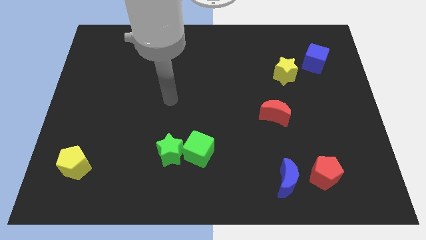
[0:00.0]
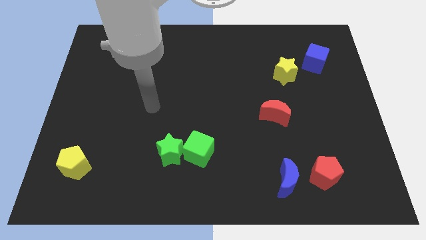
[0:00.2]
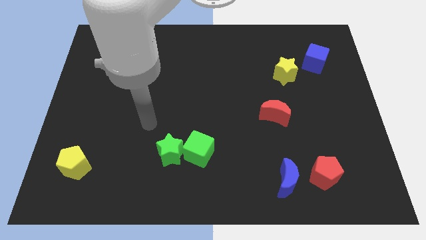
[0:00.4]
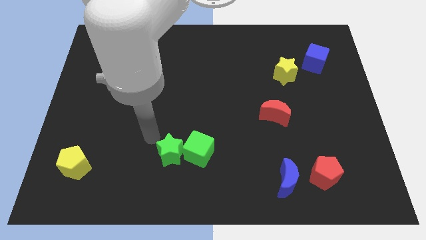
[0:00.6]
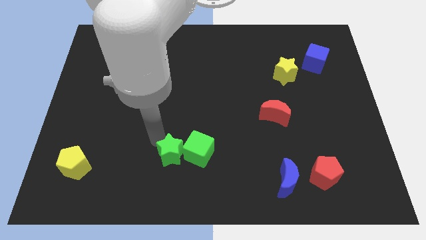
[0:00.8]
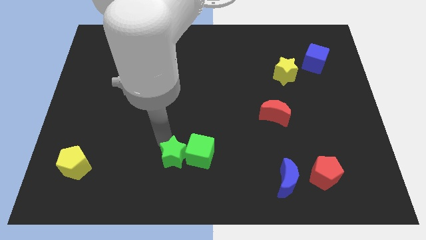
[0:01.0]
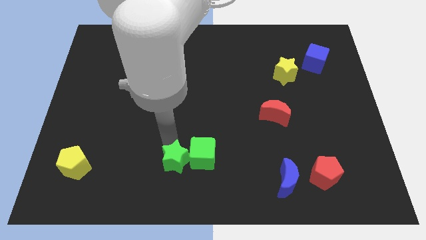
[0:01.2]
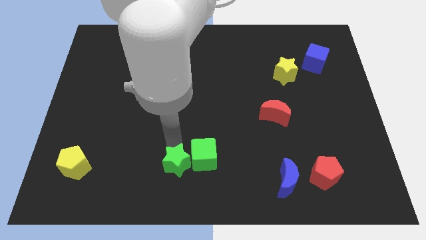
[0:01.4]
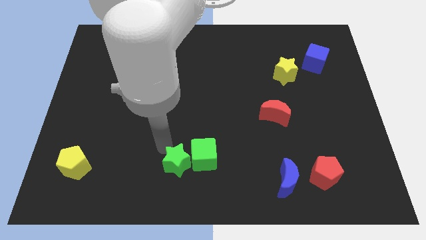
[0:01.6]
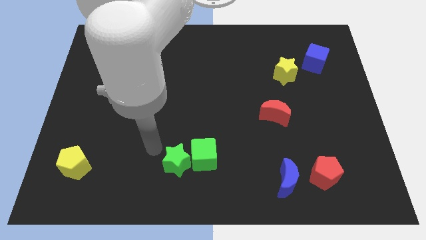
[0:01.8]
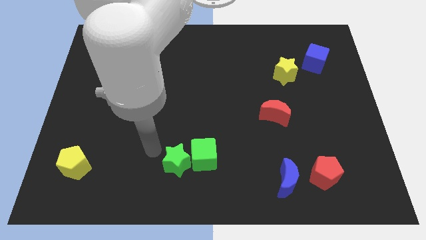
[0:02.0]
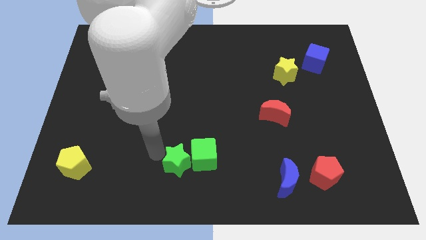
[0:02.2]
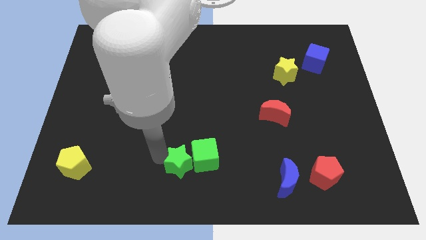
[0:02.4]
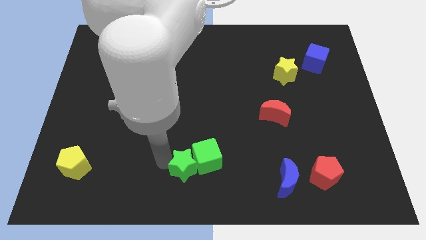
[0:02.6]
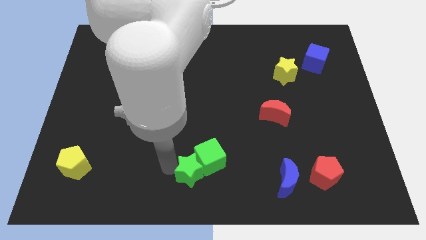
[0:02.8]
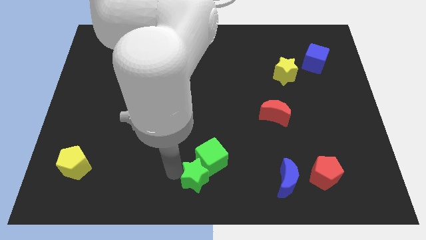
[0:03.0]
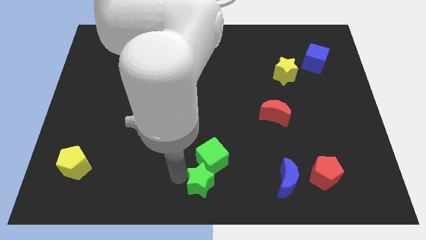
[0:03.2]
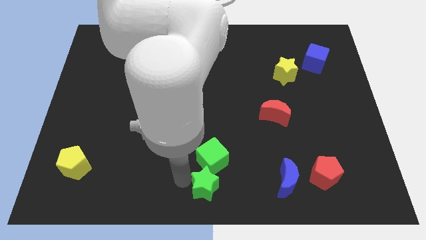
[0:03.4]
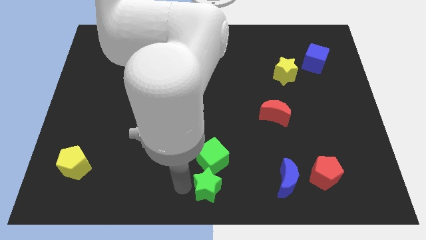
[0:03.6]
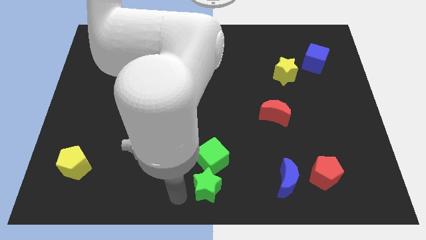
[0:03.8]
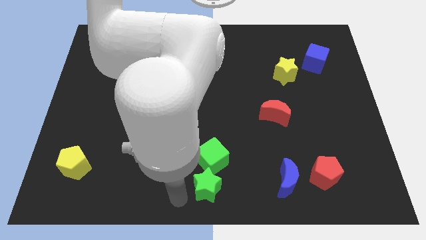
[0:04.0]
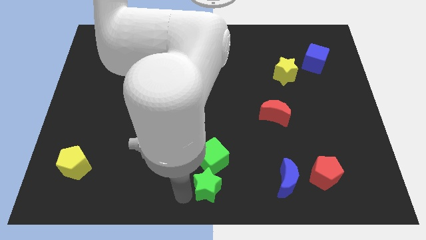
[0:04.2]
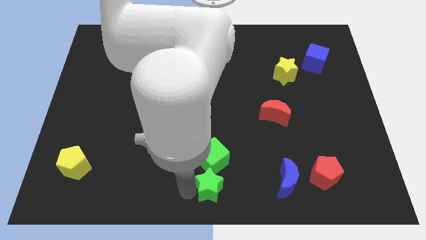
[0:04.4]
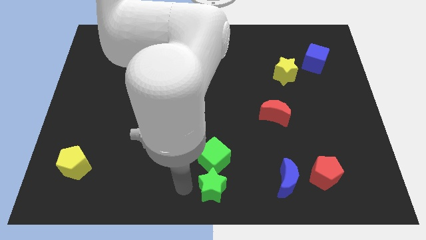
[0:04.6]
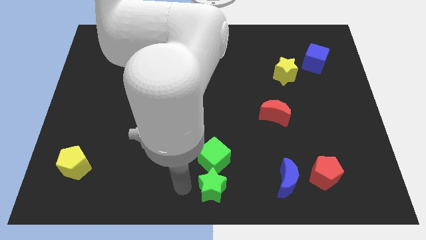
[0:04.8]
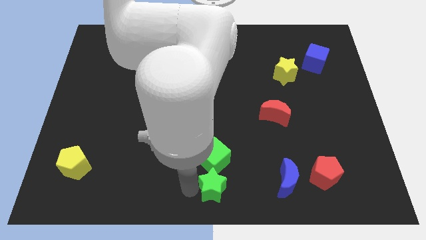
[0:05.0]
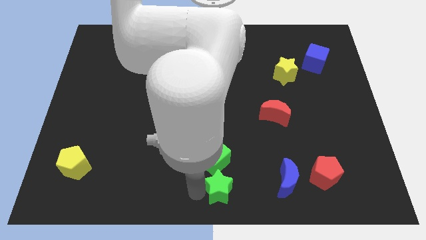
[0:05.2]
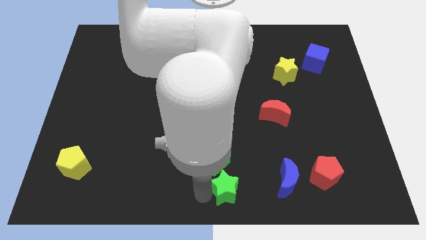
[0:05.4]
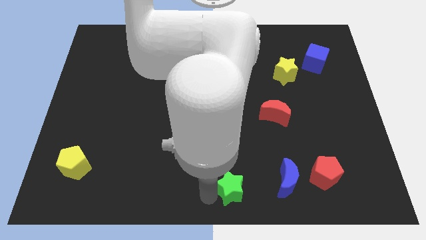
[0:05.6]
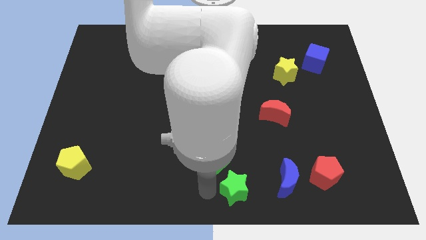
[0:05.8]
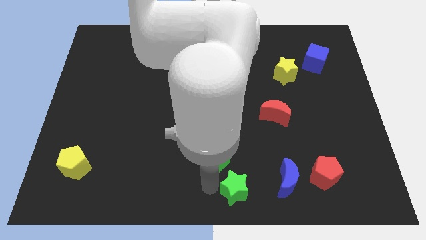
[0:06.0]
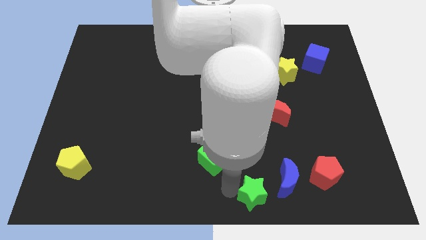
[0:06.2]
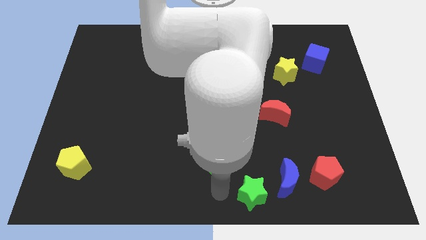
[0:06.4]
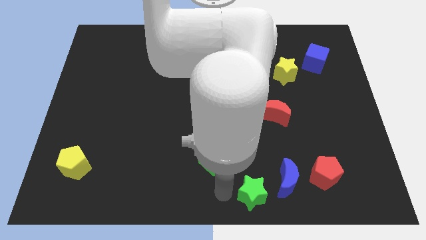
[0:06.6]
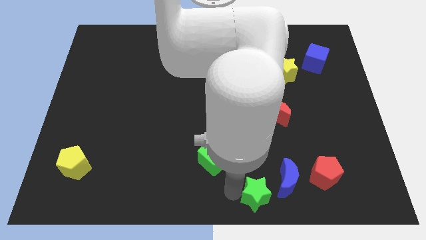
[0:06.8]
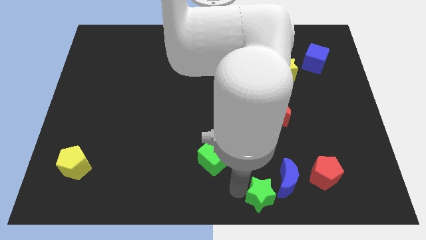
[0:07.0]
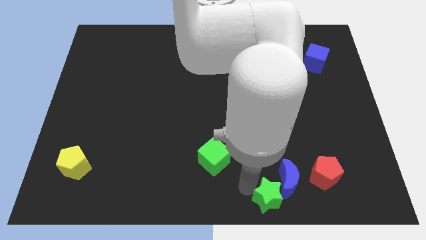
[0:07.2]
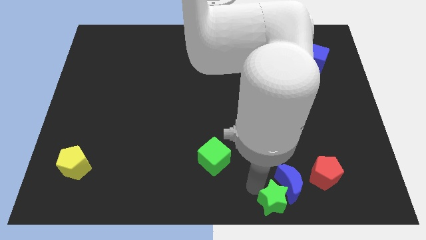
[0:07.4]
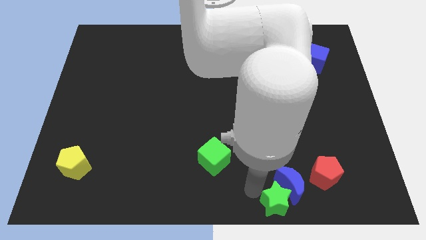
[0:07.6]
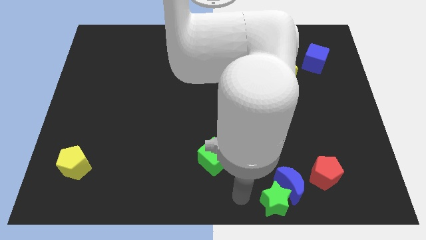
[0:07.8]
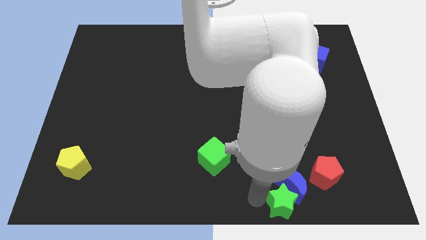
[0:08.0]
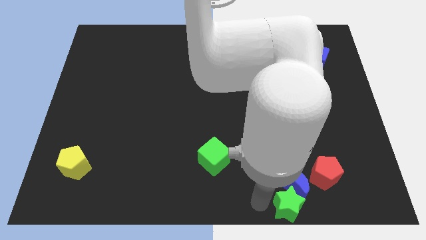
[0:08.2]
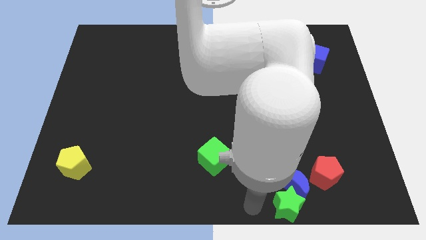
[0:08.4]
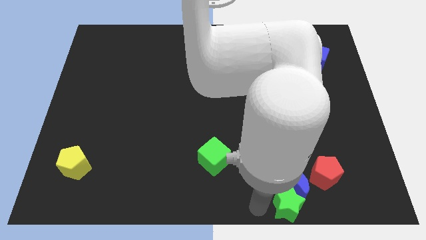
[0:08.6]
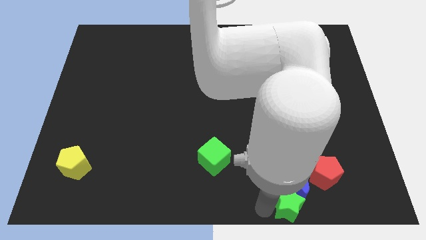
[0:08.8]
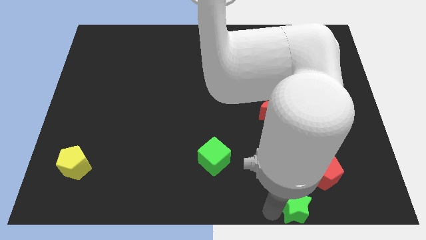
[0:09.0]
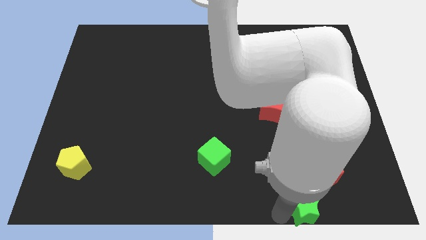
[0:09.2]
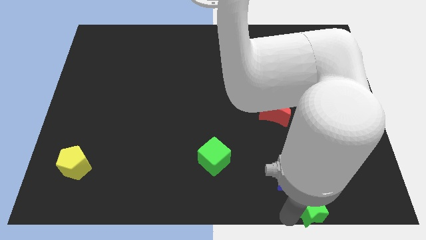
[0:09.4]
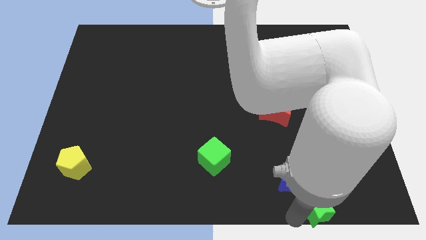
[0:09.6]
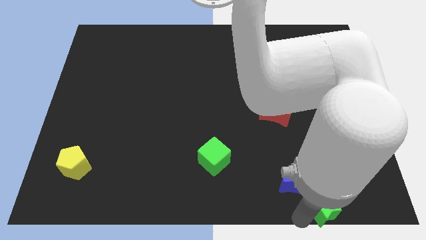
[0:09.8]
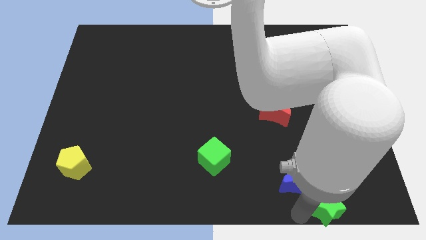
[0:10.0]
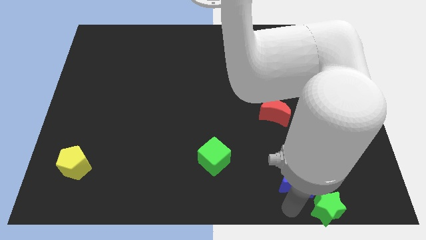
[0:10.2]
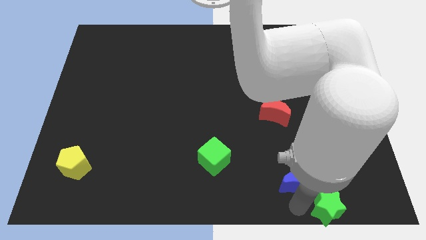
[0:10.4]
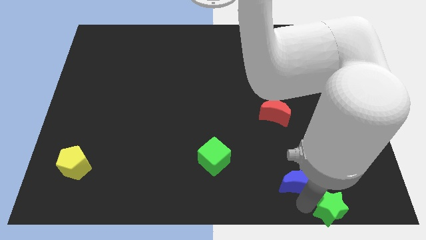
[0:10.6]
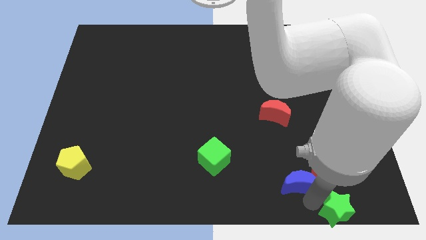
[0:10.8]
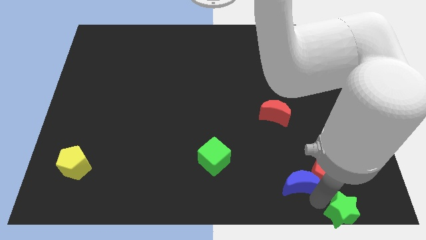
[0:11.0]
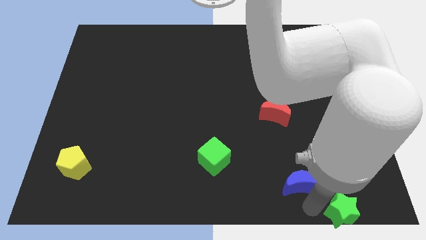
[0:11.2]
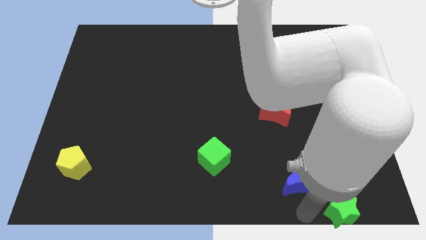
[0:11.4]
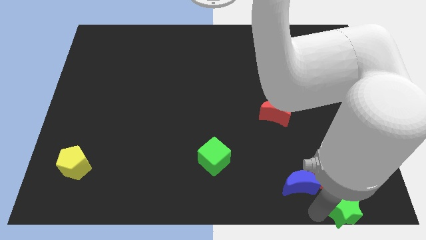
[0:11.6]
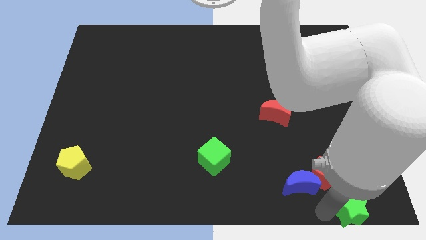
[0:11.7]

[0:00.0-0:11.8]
slide the green star to the lower right corner
